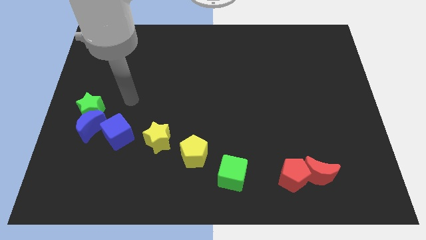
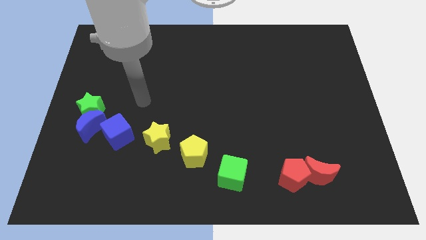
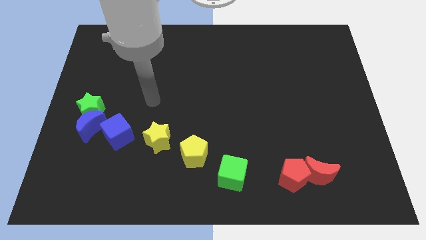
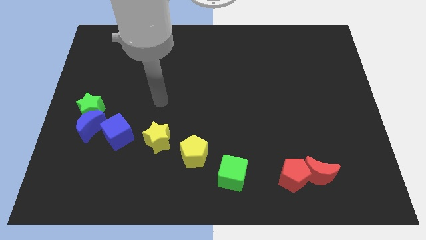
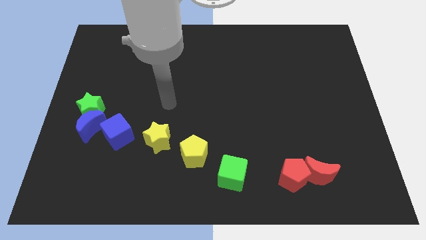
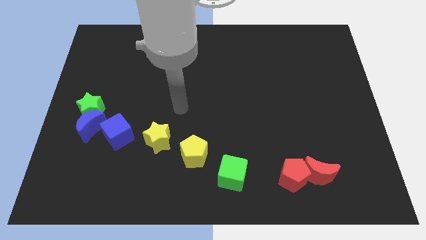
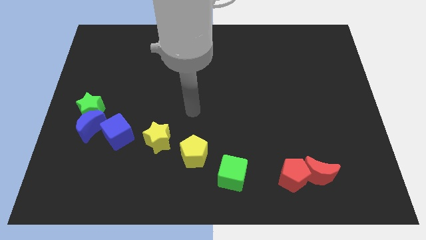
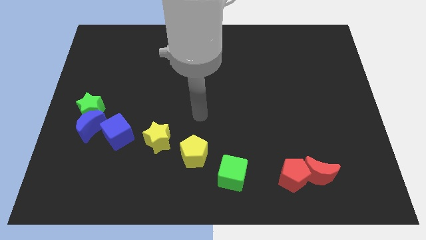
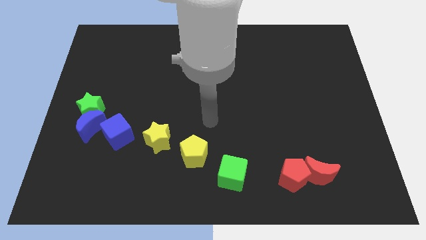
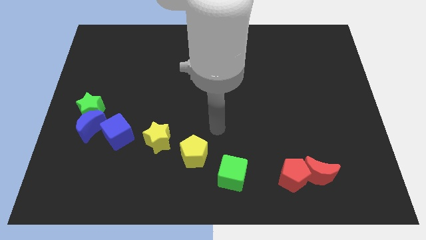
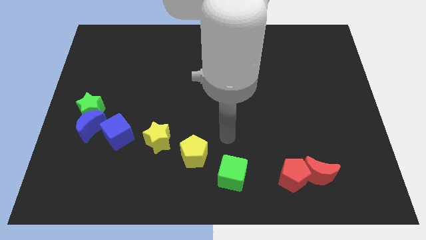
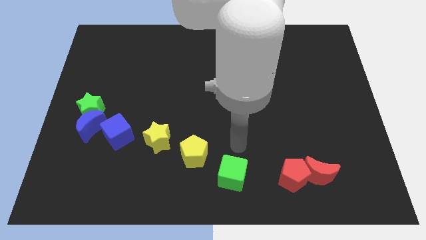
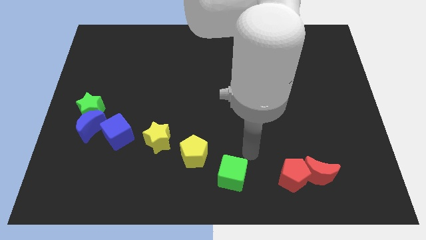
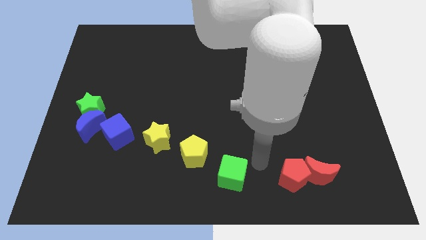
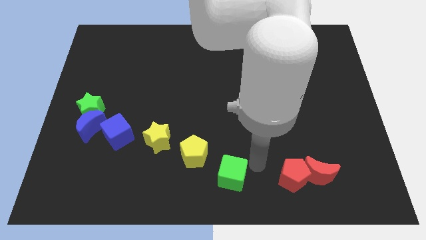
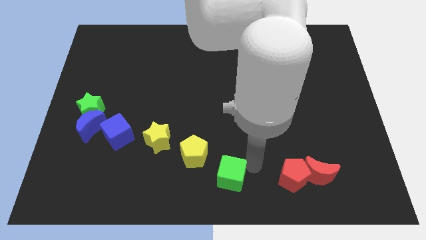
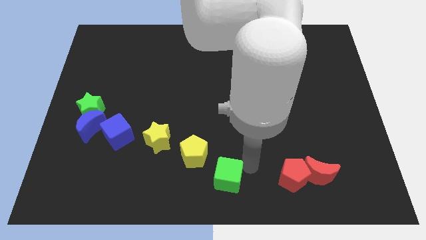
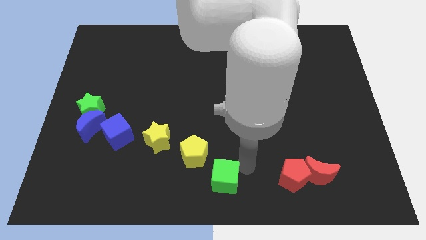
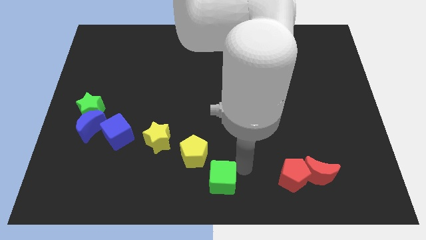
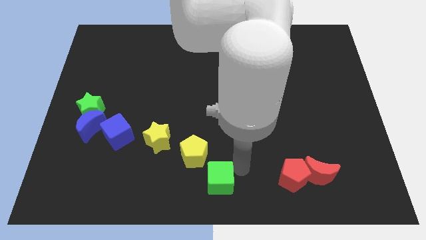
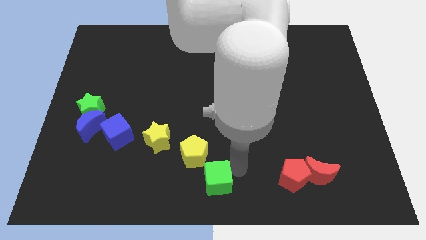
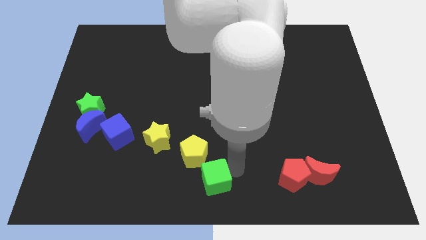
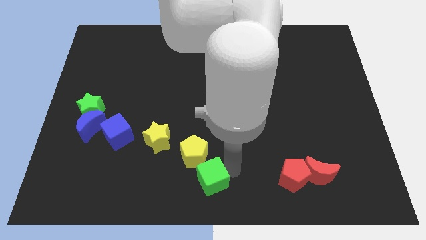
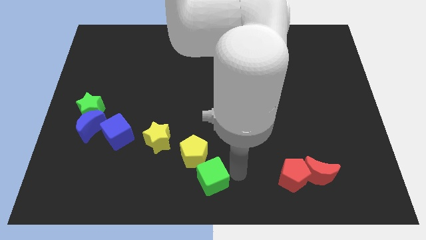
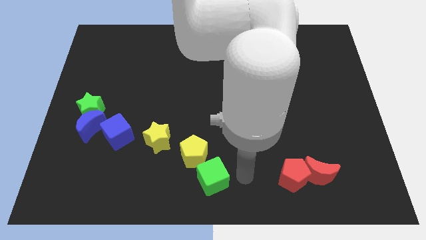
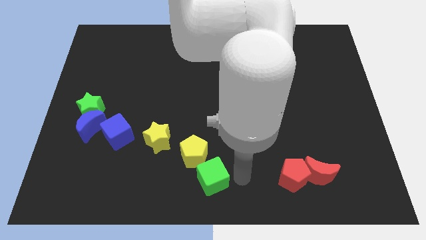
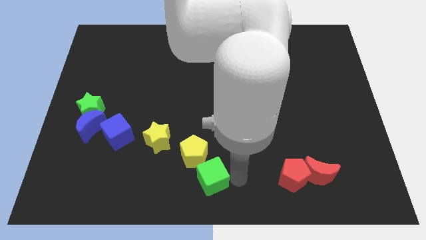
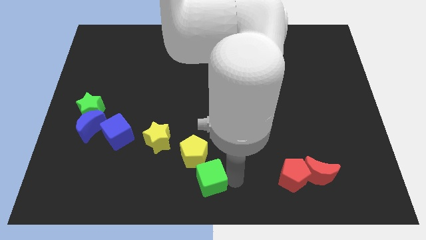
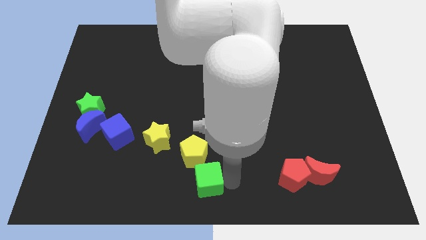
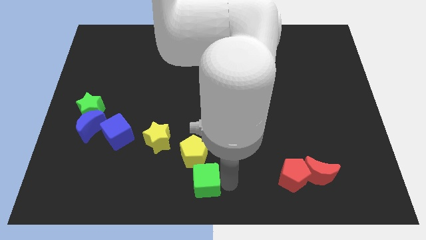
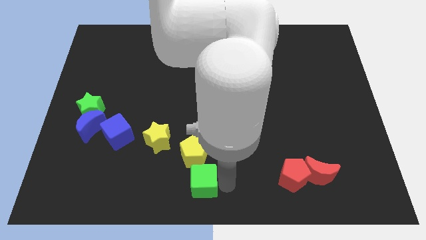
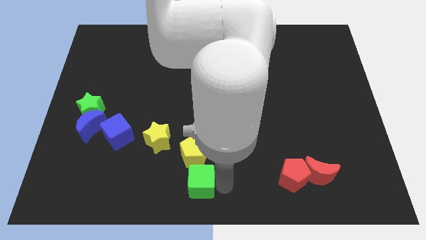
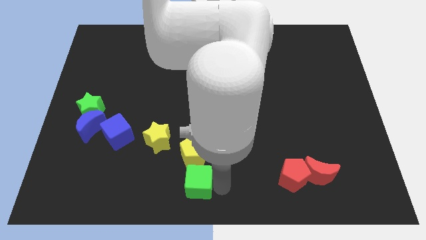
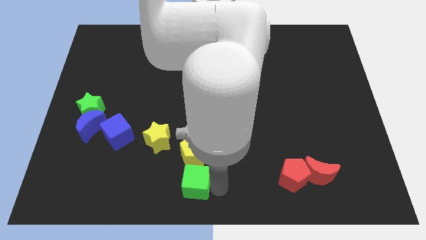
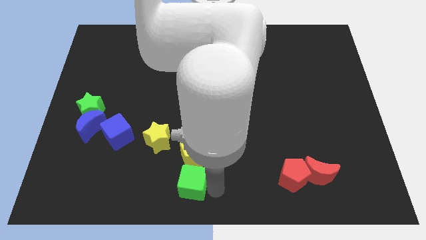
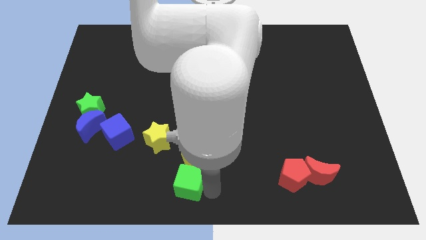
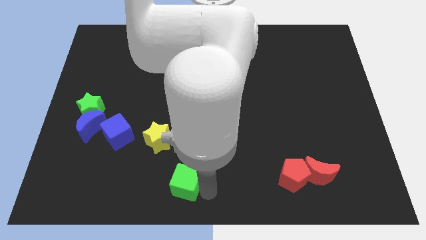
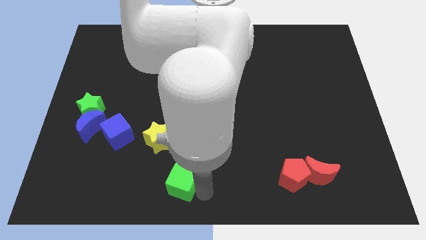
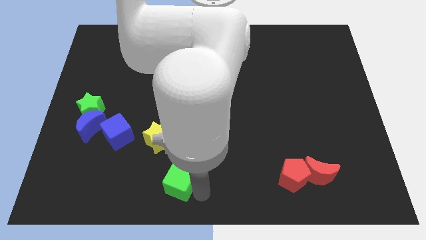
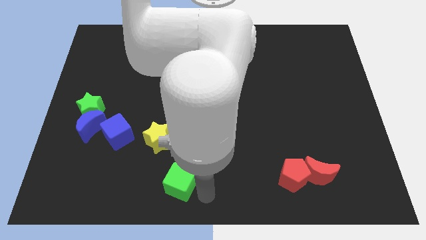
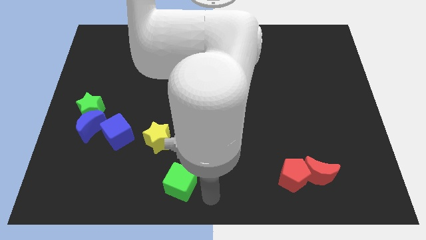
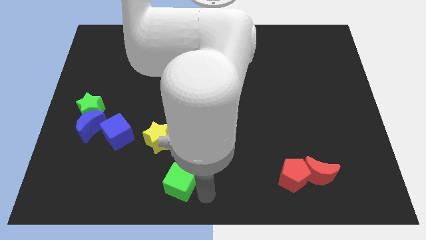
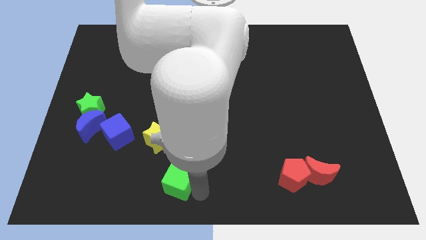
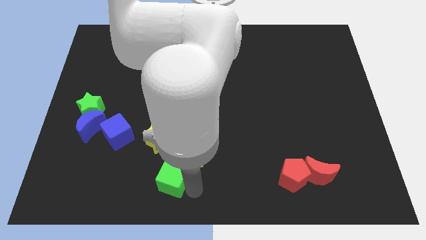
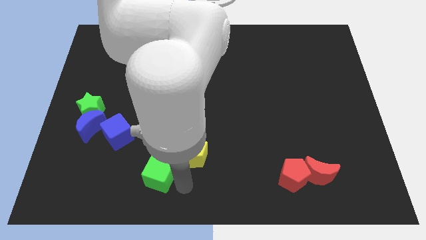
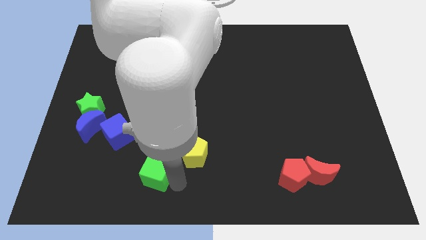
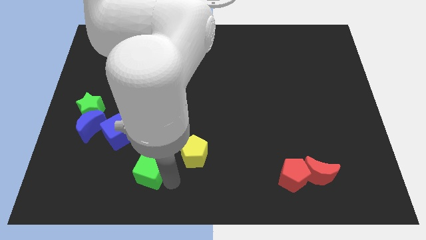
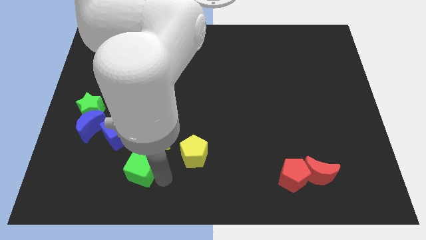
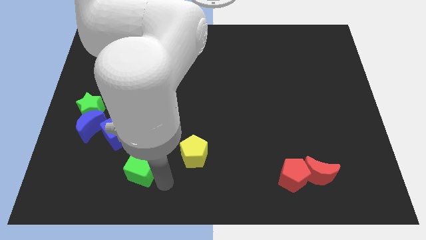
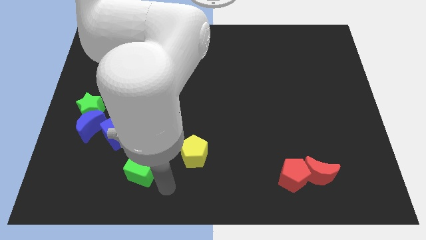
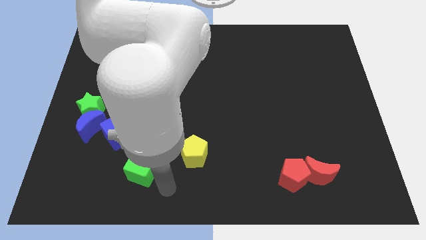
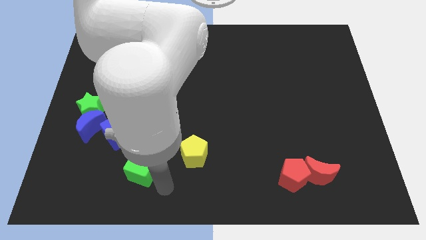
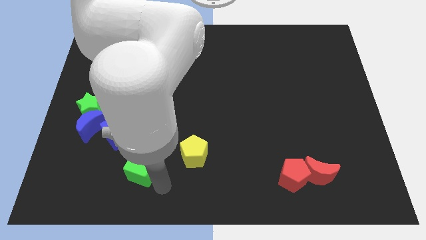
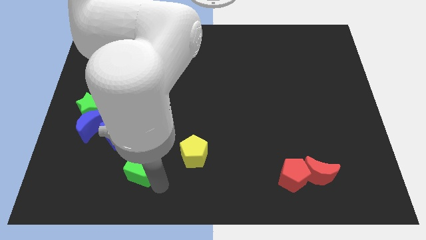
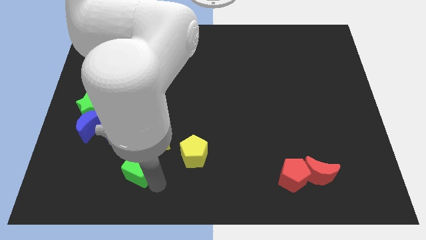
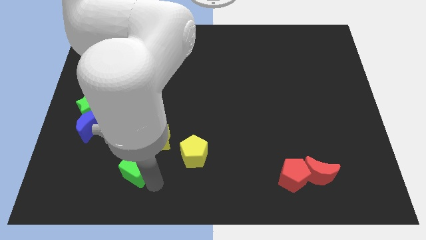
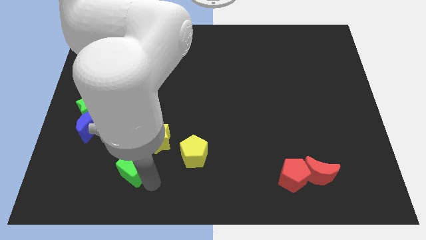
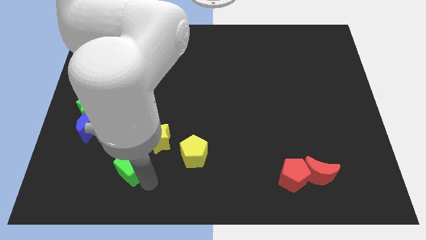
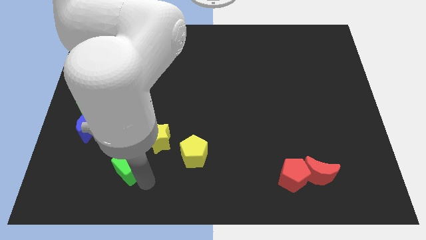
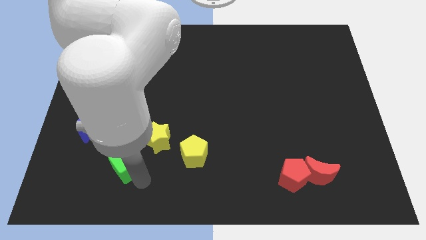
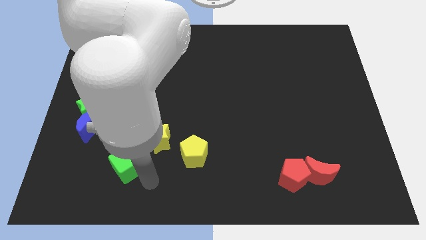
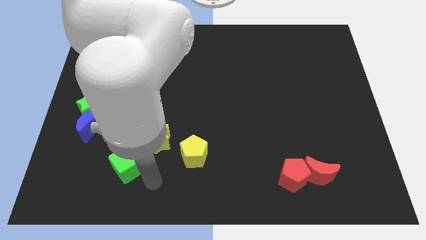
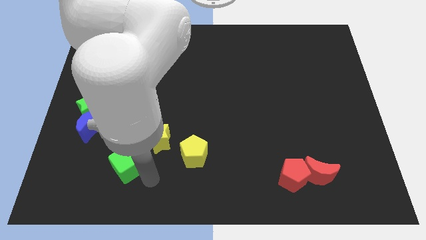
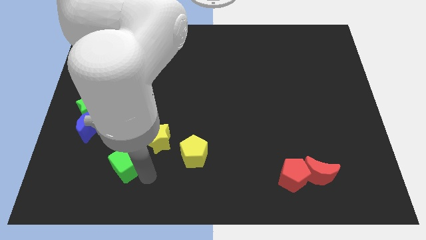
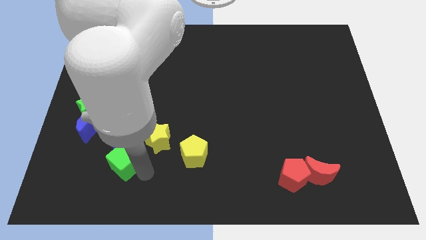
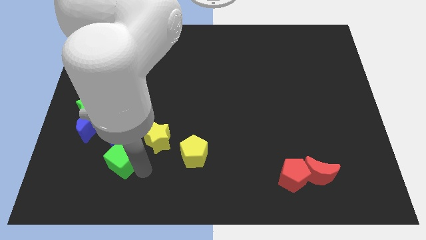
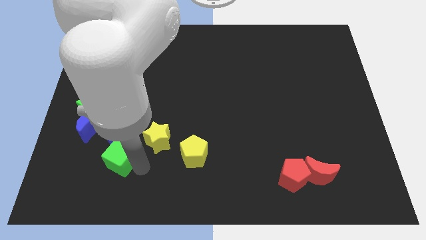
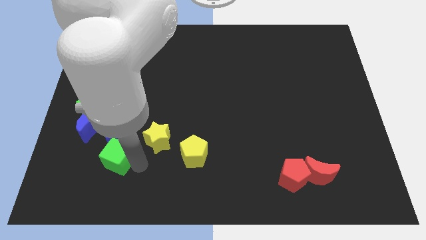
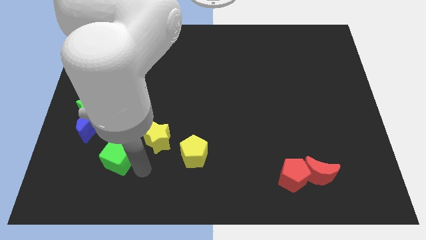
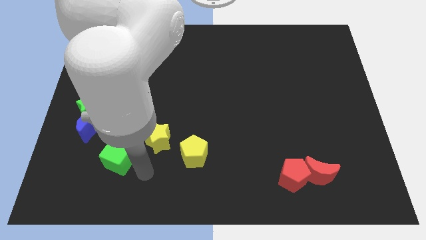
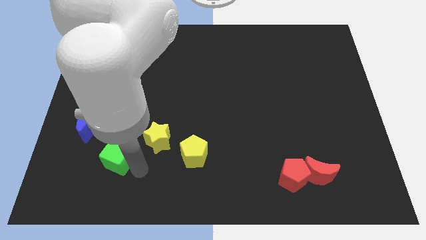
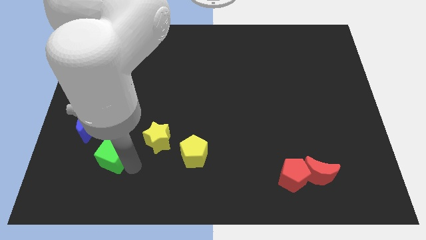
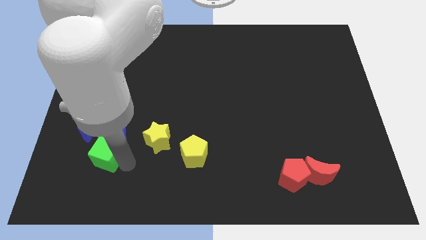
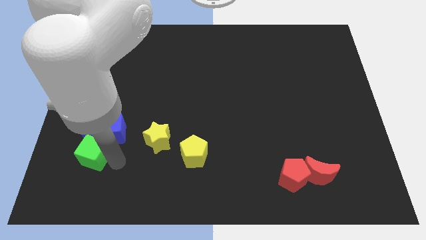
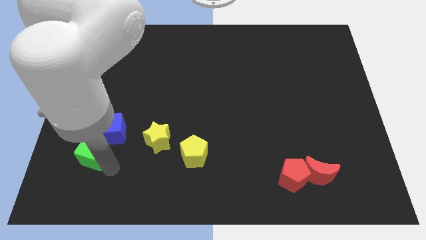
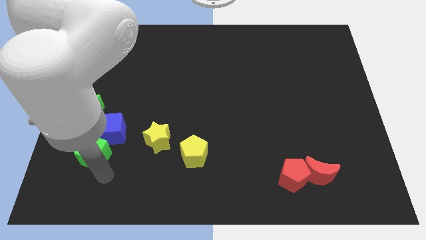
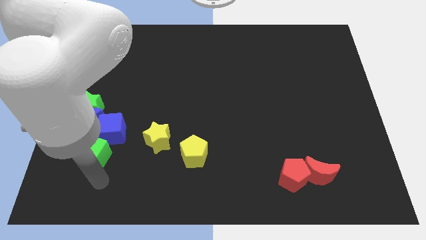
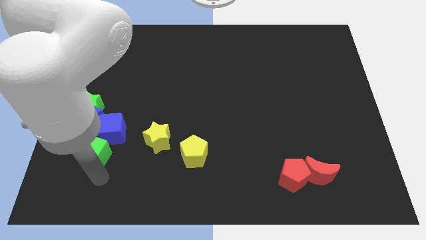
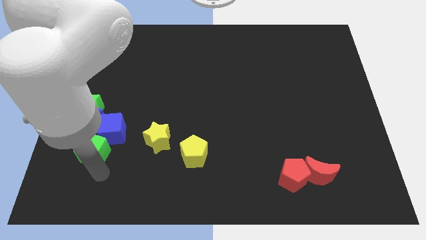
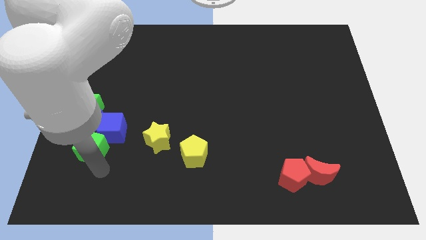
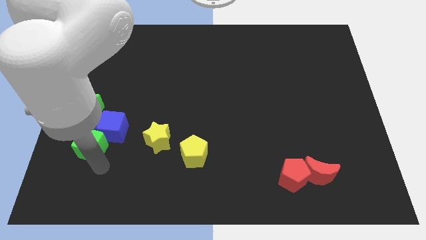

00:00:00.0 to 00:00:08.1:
slide the green cube close to the blue moon

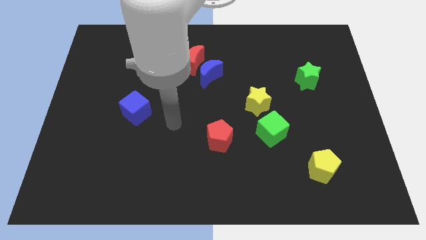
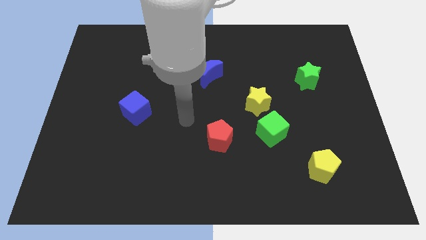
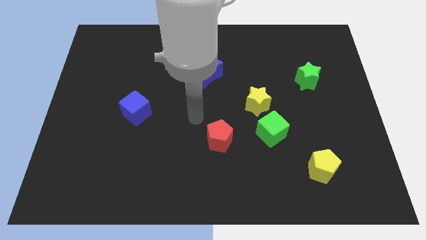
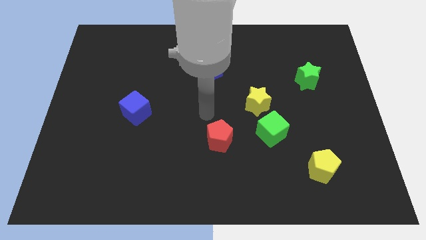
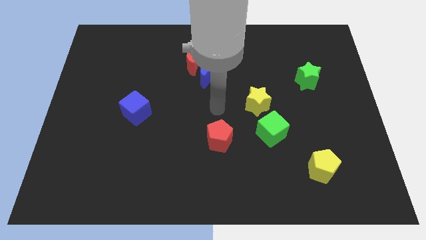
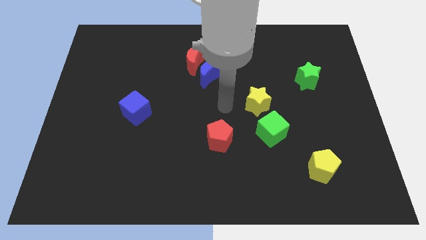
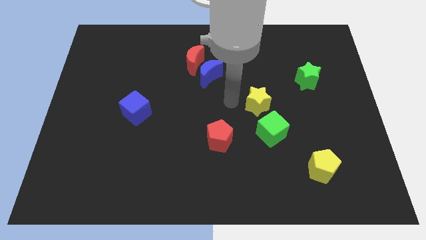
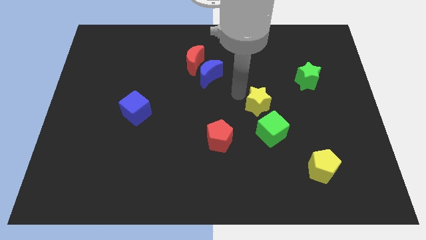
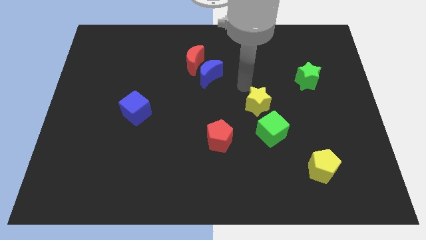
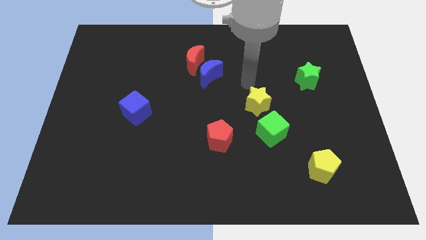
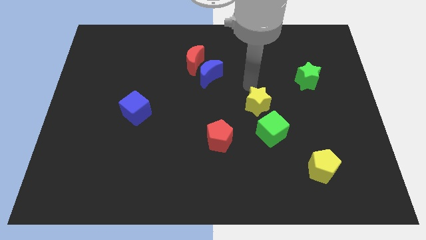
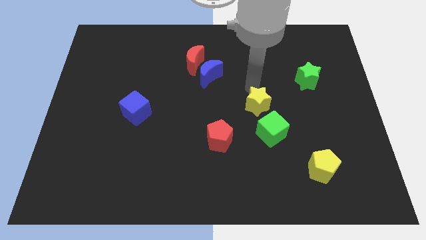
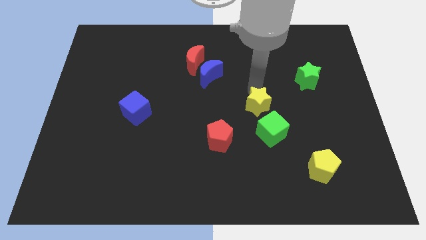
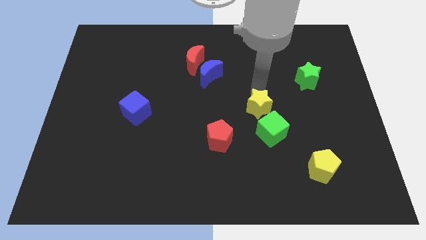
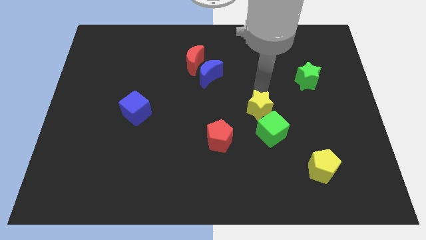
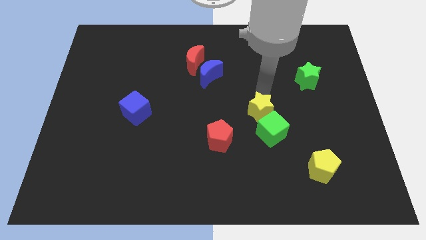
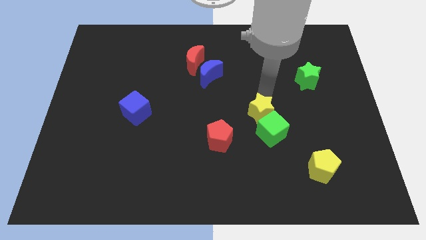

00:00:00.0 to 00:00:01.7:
slide the yellow star towards the green cube
